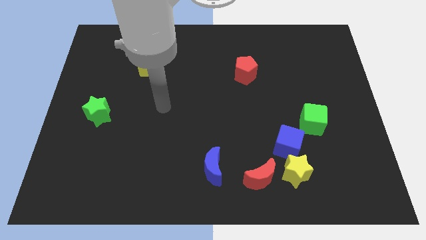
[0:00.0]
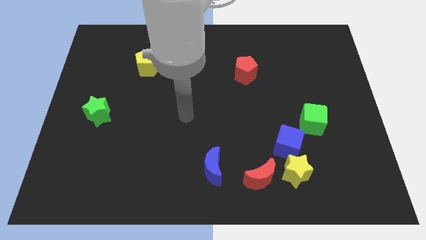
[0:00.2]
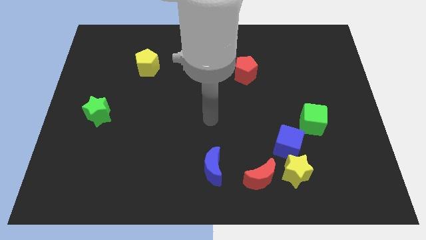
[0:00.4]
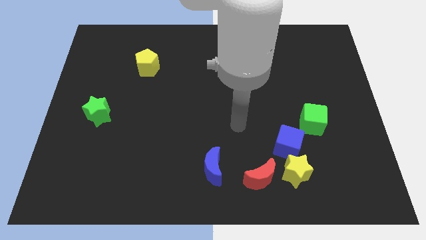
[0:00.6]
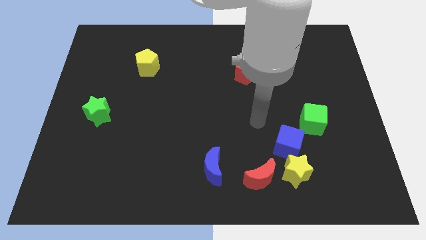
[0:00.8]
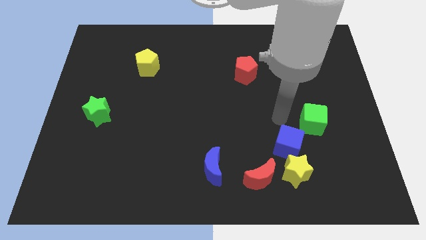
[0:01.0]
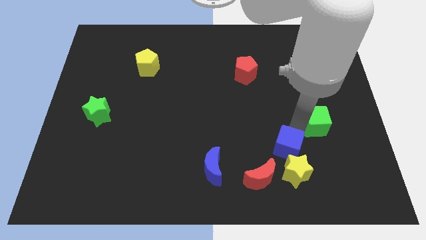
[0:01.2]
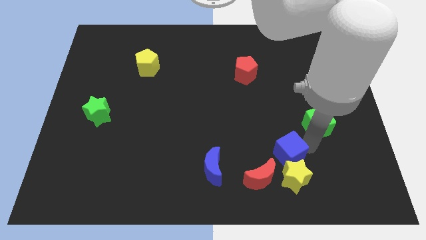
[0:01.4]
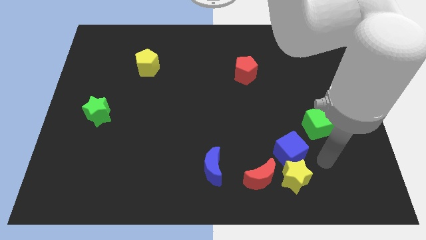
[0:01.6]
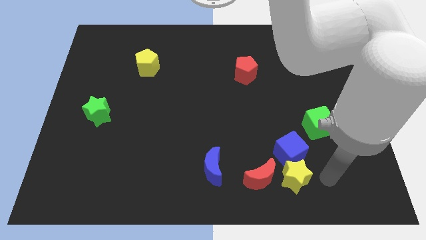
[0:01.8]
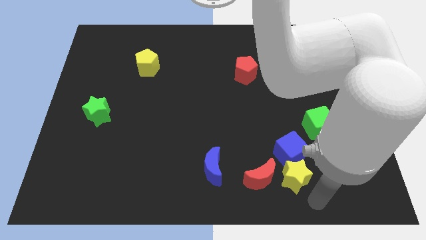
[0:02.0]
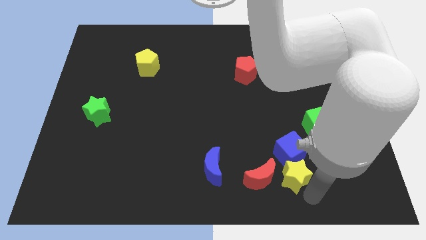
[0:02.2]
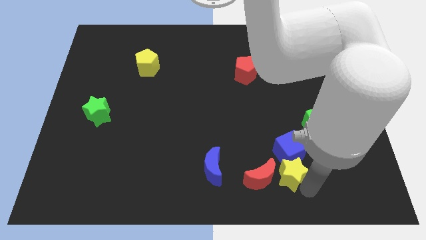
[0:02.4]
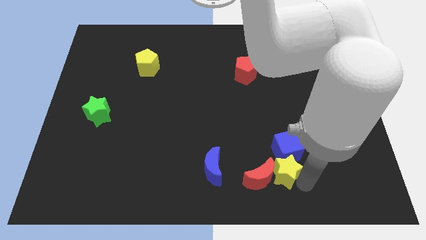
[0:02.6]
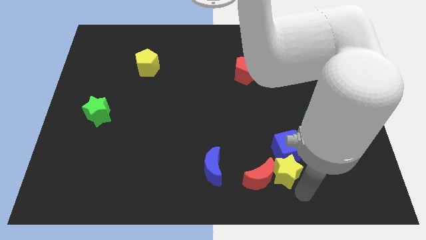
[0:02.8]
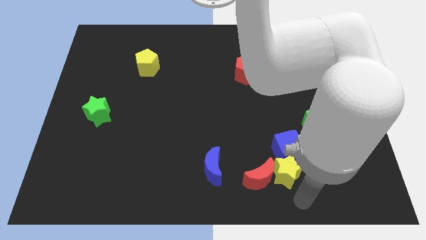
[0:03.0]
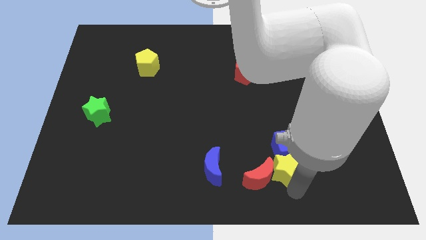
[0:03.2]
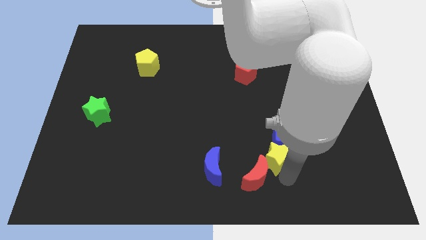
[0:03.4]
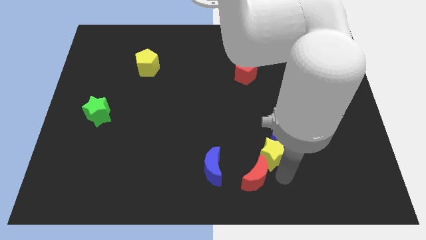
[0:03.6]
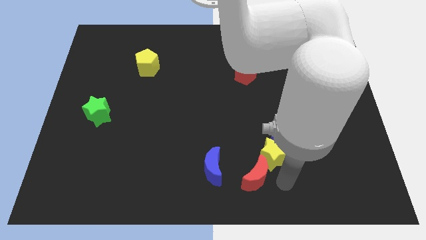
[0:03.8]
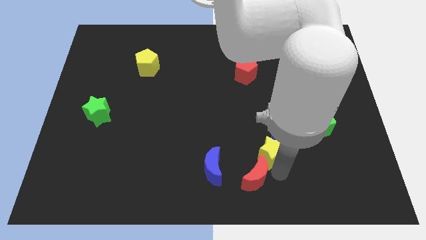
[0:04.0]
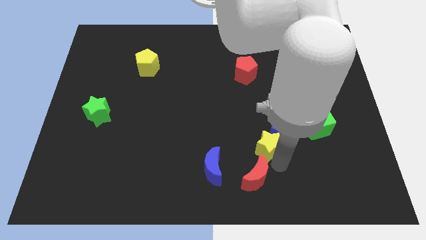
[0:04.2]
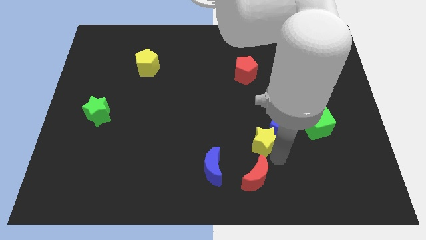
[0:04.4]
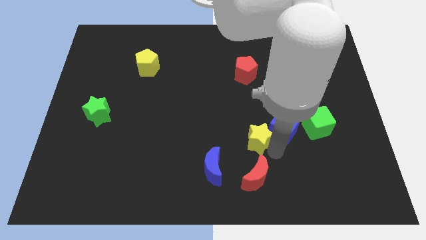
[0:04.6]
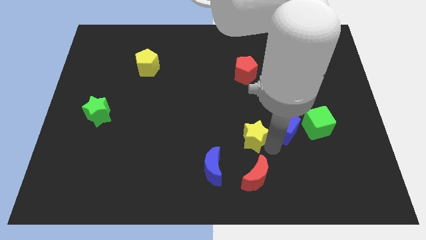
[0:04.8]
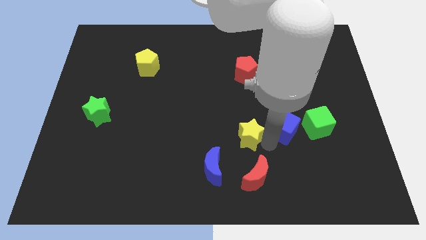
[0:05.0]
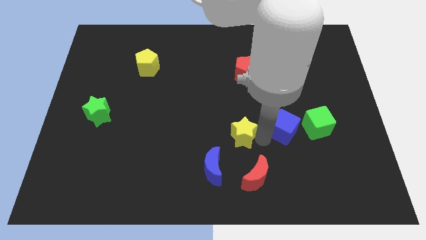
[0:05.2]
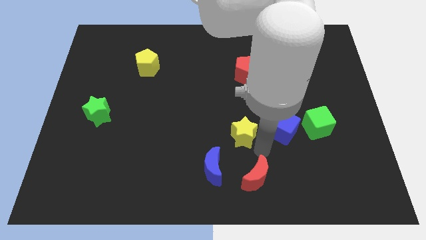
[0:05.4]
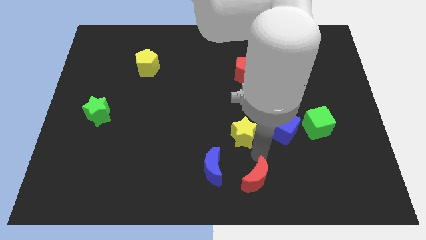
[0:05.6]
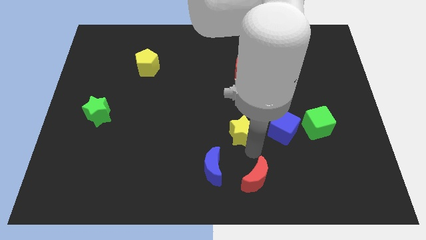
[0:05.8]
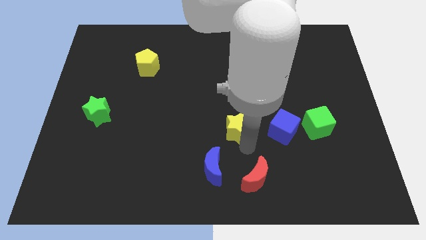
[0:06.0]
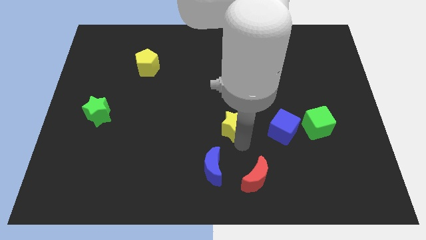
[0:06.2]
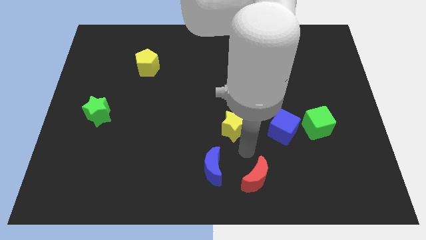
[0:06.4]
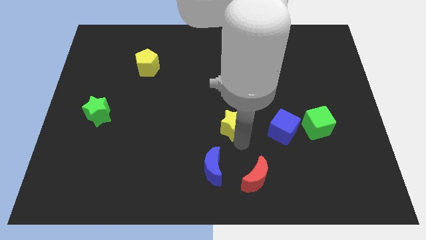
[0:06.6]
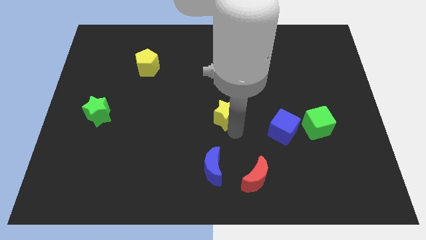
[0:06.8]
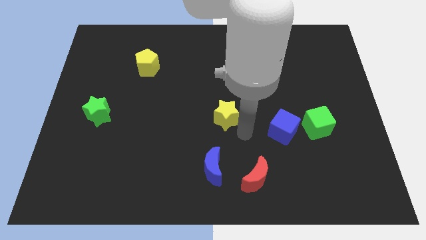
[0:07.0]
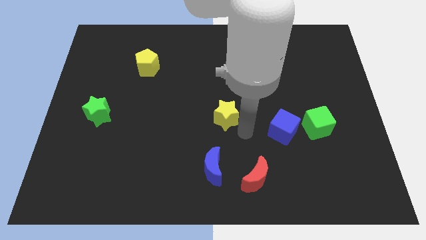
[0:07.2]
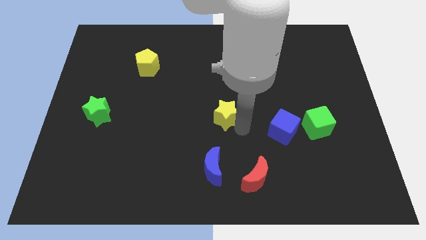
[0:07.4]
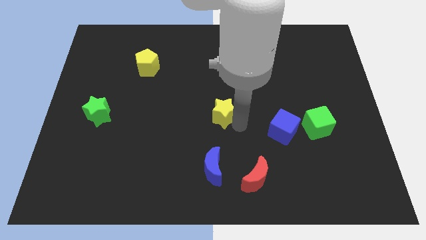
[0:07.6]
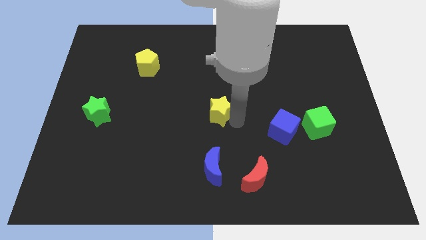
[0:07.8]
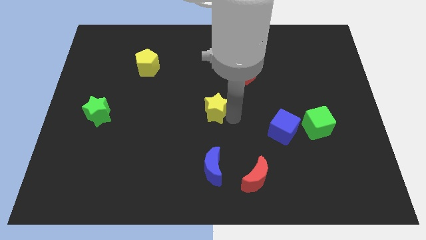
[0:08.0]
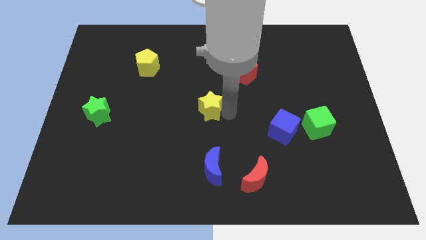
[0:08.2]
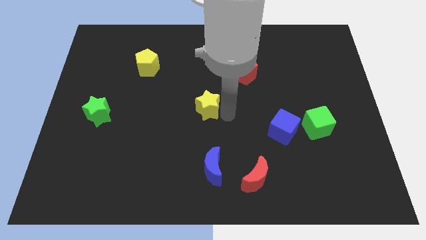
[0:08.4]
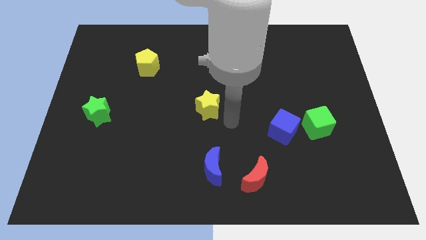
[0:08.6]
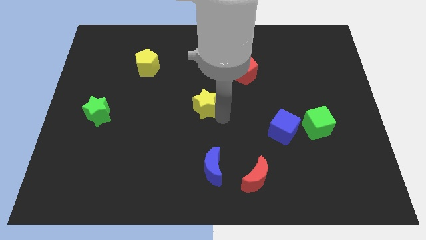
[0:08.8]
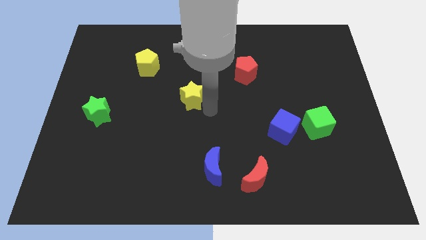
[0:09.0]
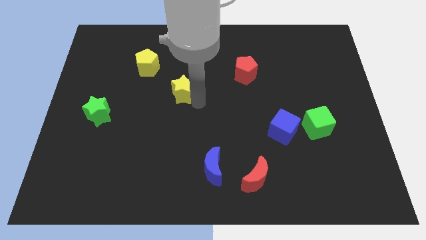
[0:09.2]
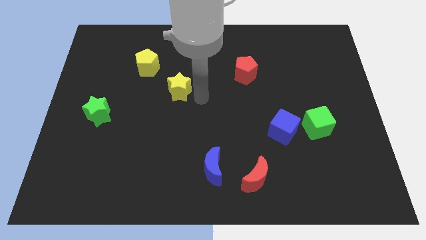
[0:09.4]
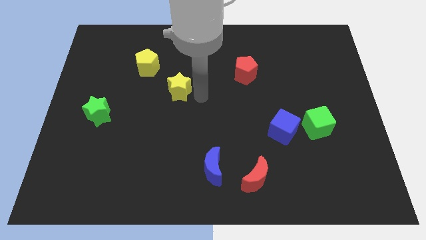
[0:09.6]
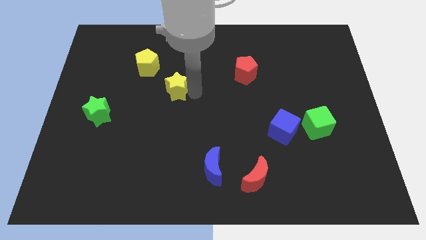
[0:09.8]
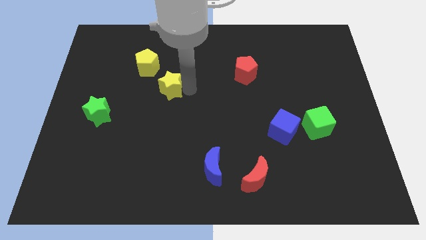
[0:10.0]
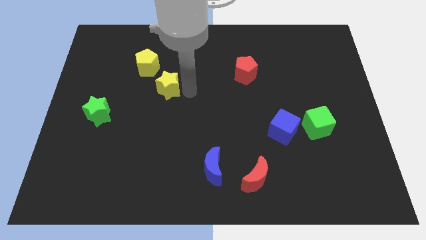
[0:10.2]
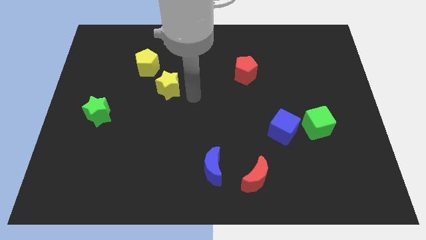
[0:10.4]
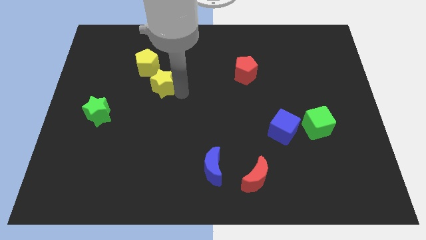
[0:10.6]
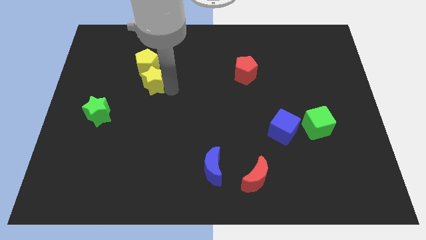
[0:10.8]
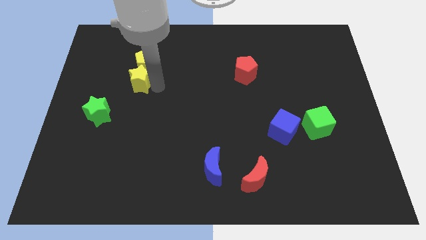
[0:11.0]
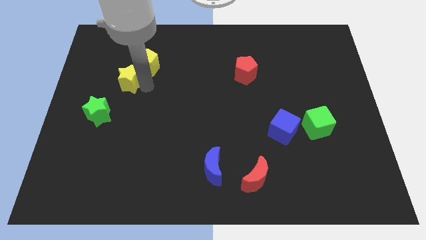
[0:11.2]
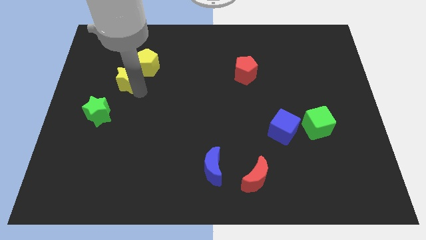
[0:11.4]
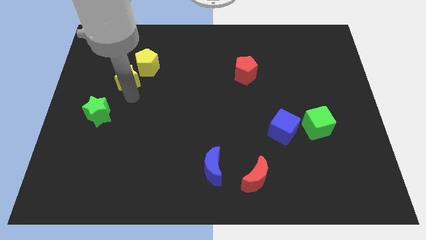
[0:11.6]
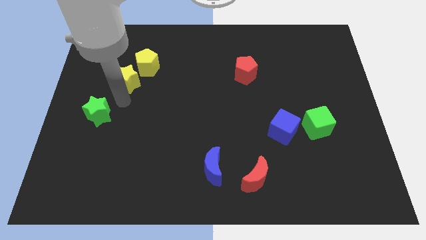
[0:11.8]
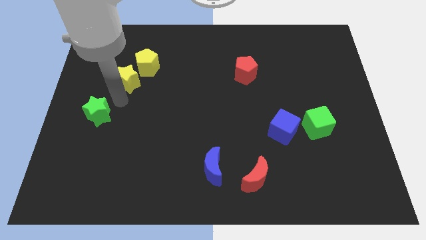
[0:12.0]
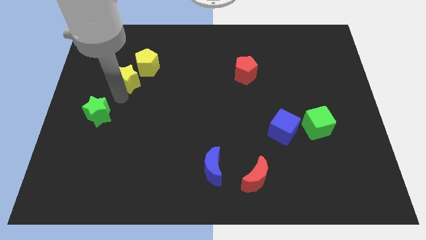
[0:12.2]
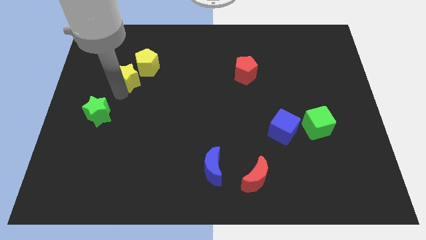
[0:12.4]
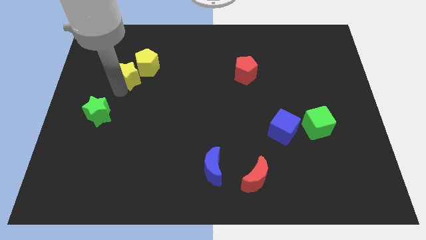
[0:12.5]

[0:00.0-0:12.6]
move the yellow star to the left side of the yellow pentagon

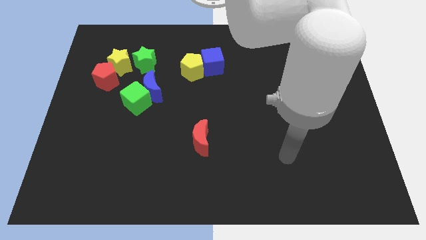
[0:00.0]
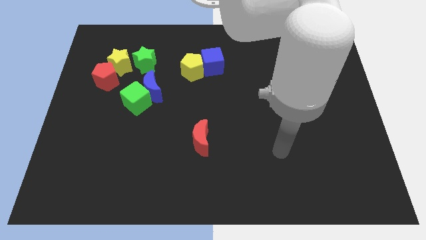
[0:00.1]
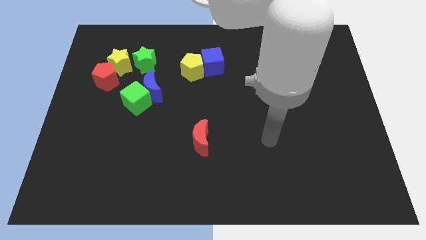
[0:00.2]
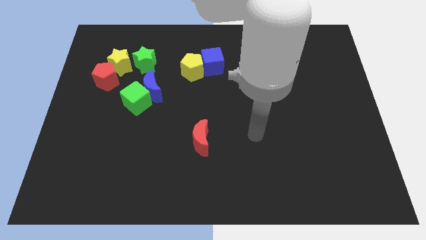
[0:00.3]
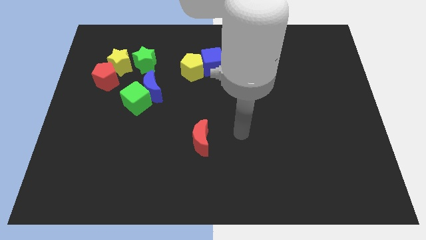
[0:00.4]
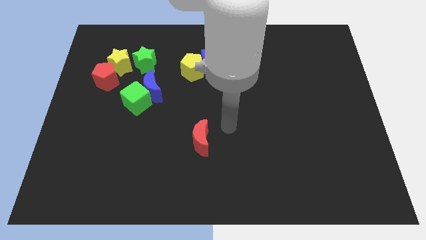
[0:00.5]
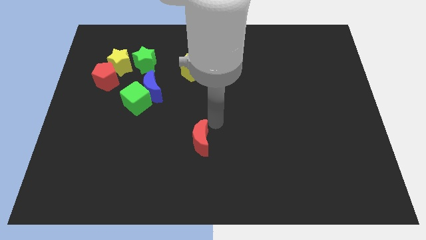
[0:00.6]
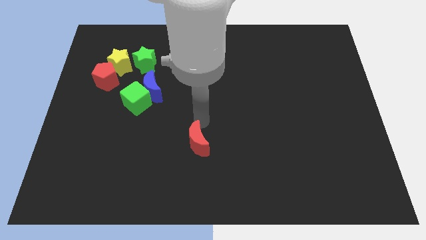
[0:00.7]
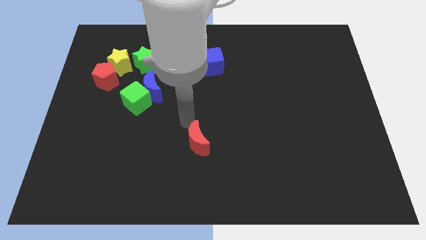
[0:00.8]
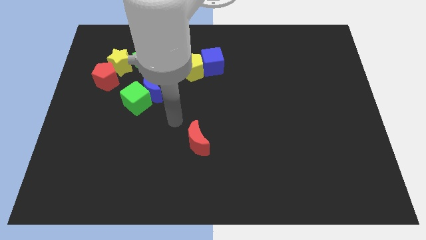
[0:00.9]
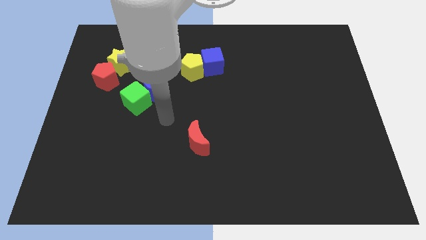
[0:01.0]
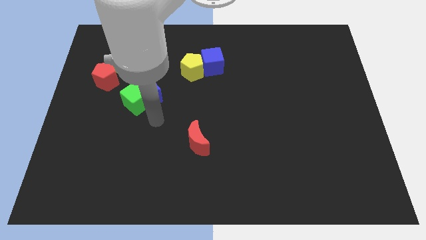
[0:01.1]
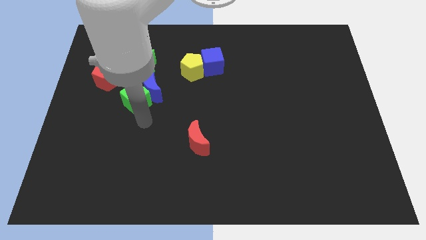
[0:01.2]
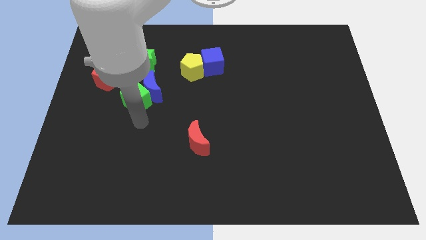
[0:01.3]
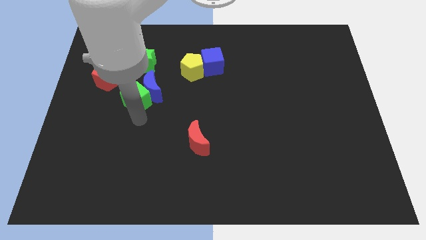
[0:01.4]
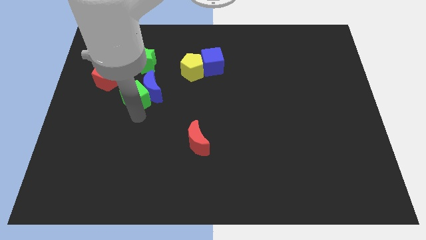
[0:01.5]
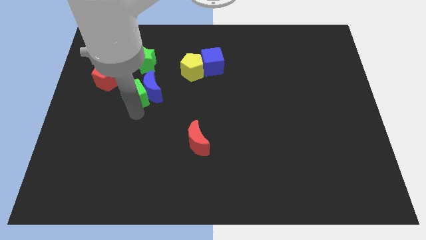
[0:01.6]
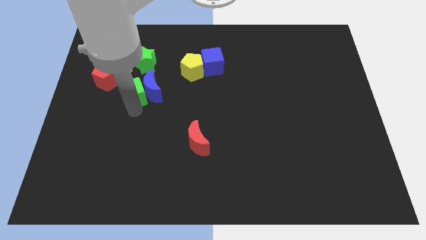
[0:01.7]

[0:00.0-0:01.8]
put the green cube diagonally up and to the left of the blue moon
